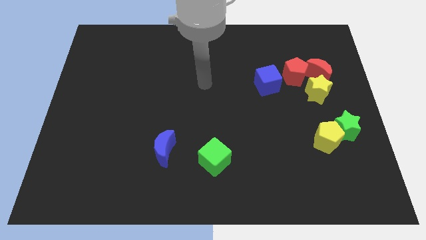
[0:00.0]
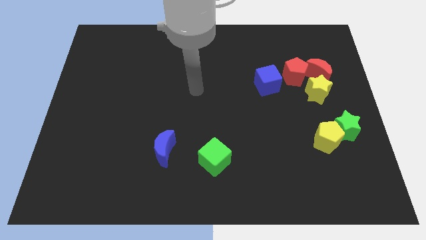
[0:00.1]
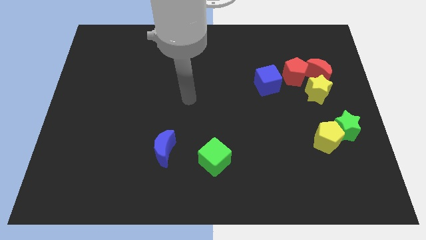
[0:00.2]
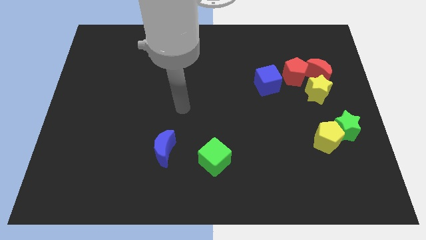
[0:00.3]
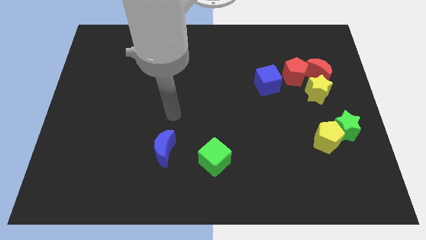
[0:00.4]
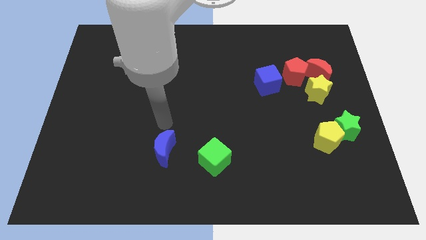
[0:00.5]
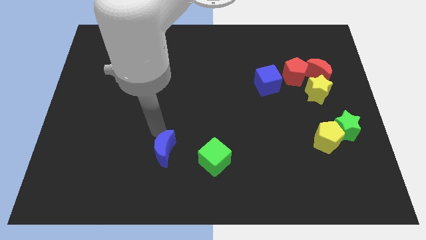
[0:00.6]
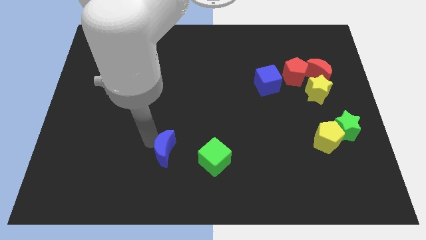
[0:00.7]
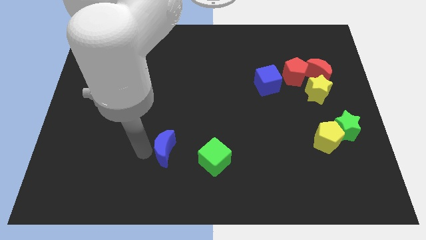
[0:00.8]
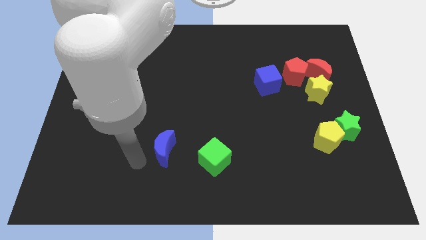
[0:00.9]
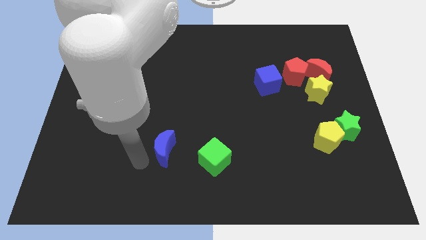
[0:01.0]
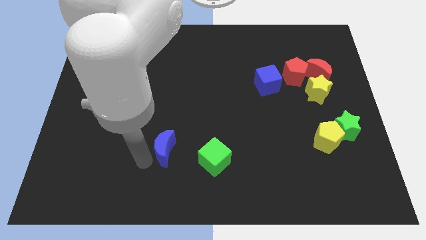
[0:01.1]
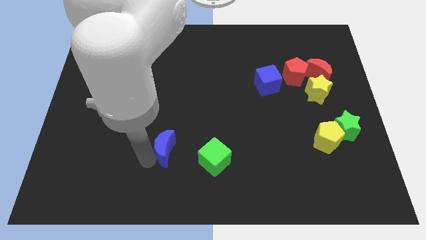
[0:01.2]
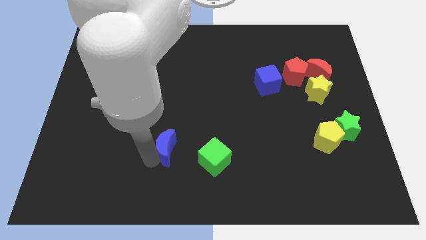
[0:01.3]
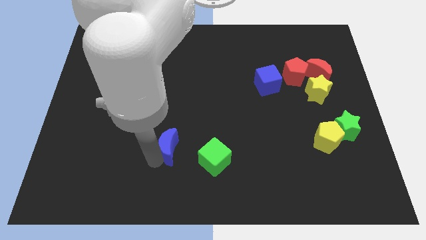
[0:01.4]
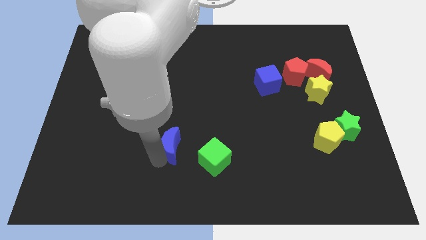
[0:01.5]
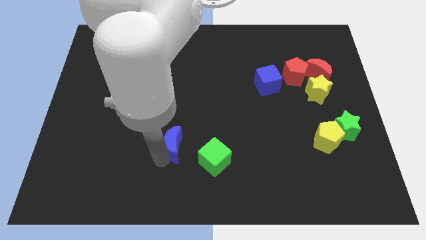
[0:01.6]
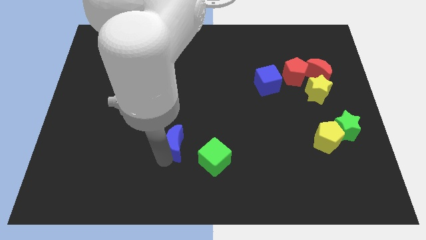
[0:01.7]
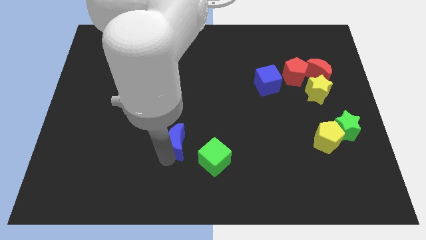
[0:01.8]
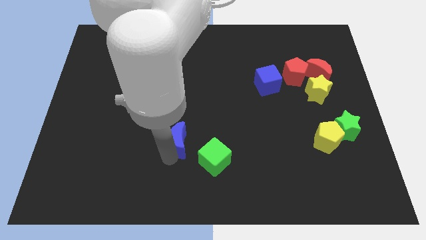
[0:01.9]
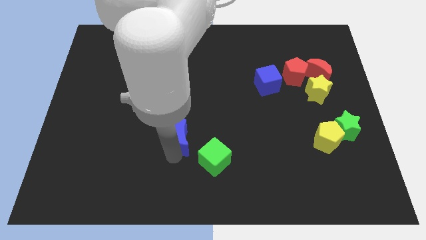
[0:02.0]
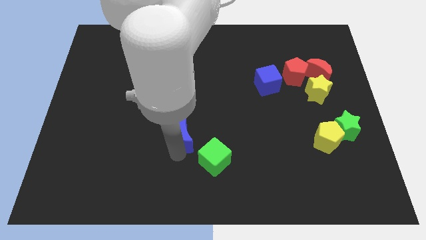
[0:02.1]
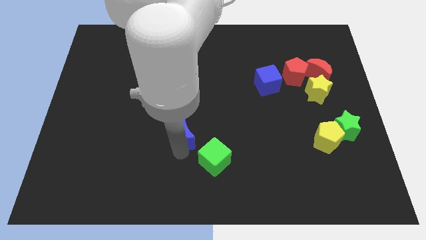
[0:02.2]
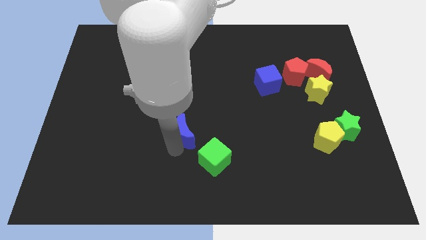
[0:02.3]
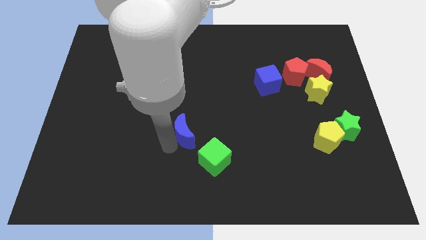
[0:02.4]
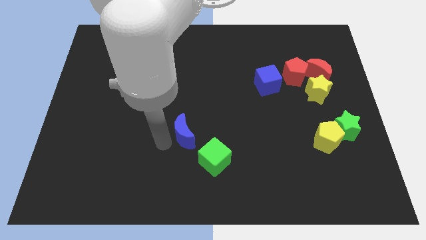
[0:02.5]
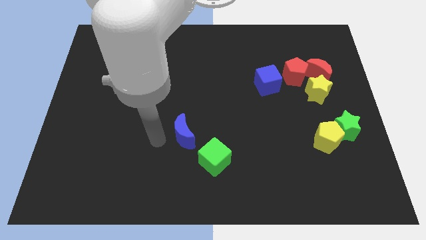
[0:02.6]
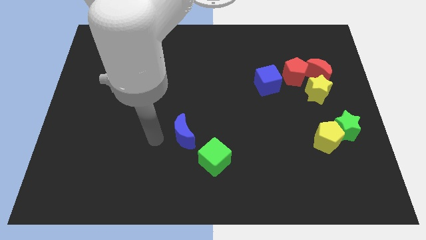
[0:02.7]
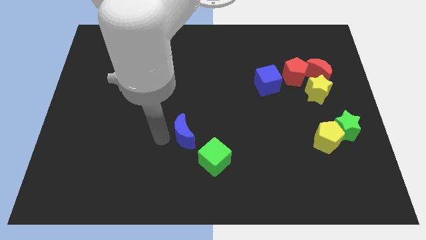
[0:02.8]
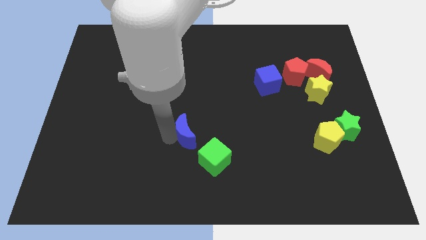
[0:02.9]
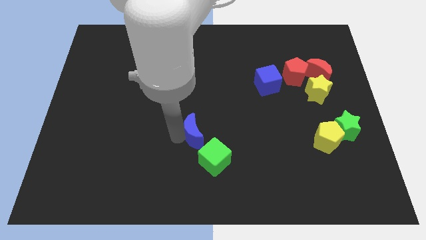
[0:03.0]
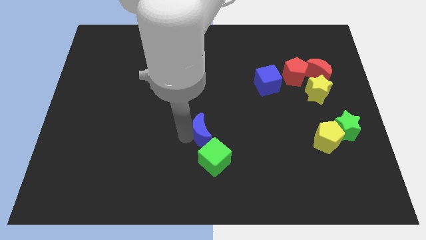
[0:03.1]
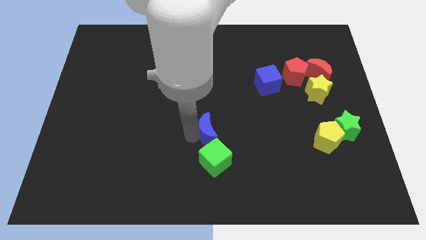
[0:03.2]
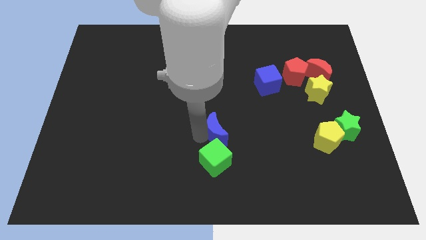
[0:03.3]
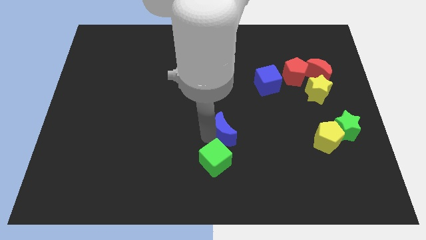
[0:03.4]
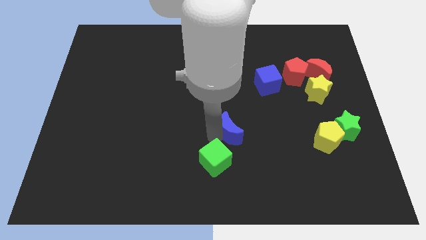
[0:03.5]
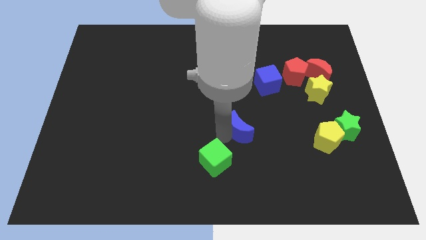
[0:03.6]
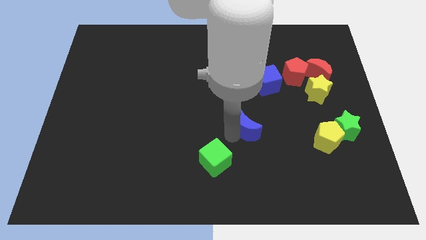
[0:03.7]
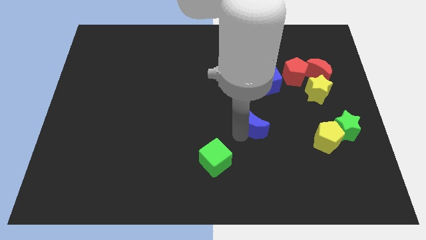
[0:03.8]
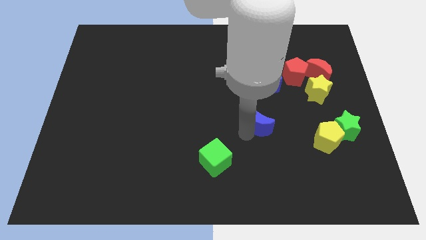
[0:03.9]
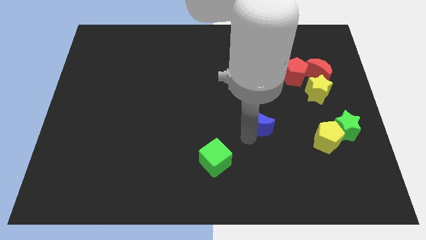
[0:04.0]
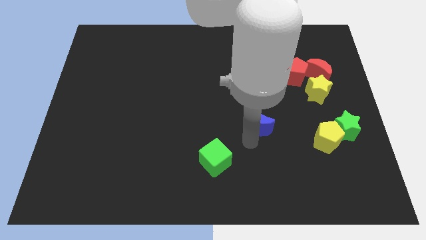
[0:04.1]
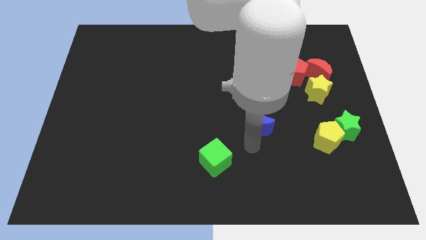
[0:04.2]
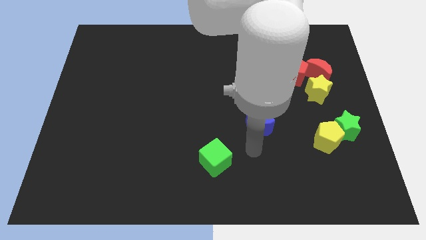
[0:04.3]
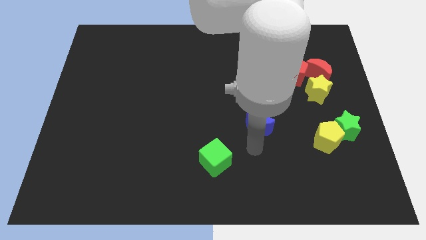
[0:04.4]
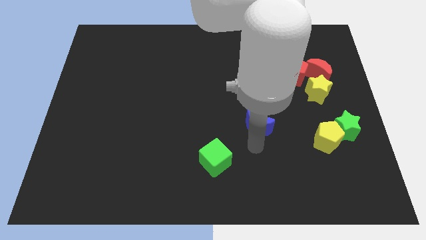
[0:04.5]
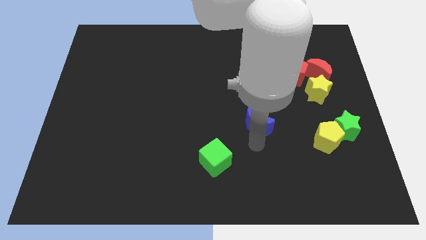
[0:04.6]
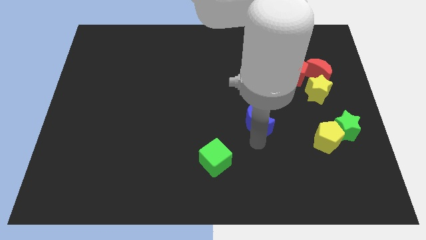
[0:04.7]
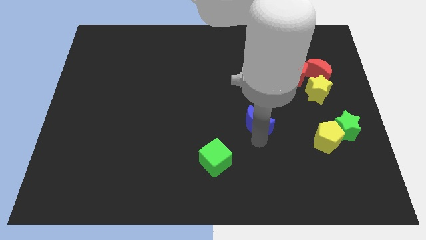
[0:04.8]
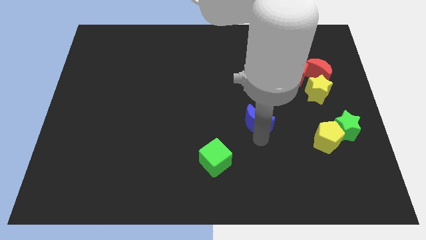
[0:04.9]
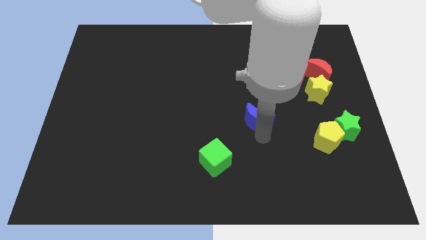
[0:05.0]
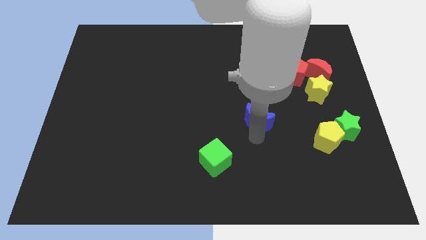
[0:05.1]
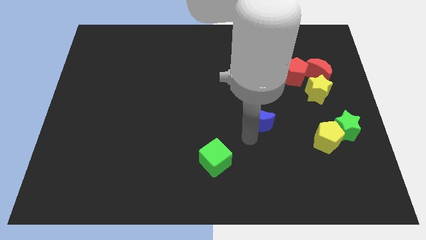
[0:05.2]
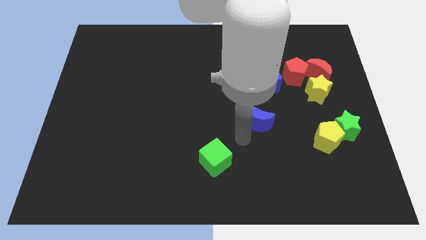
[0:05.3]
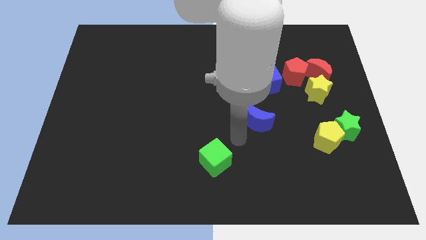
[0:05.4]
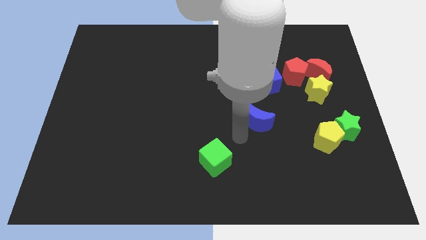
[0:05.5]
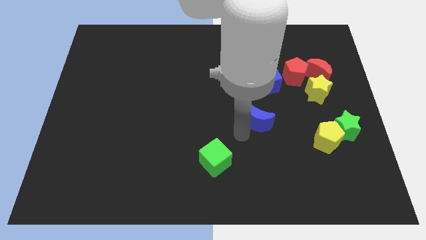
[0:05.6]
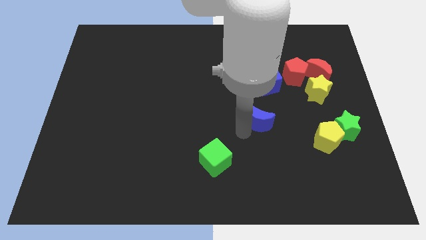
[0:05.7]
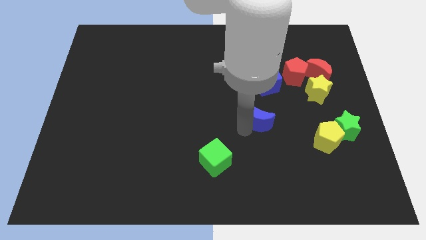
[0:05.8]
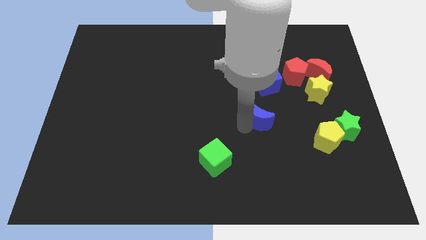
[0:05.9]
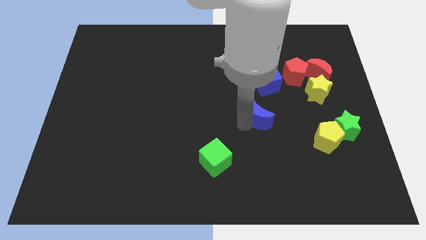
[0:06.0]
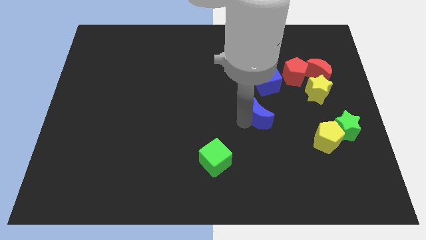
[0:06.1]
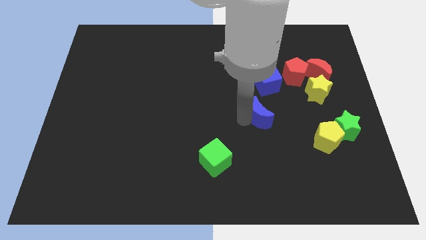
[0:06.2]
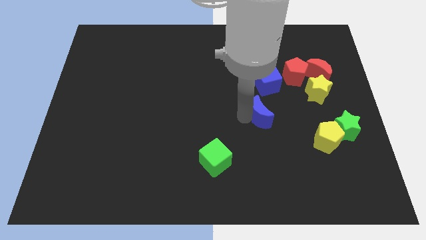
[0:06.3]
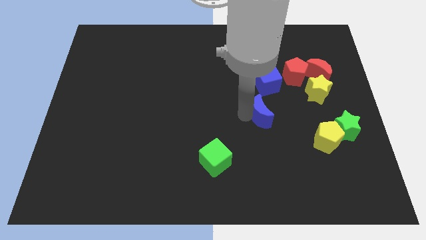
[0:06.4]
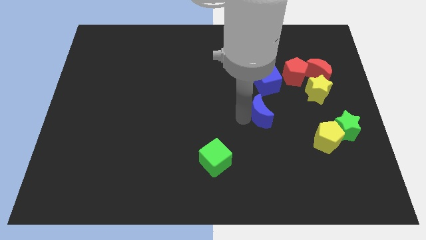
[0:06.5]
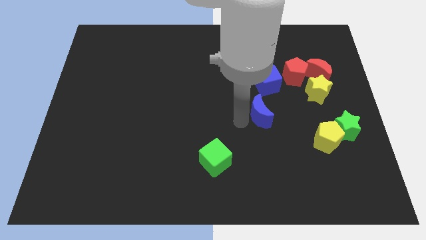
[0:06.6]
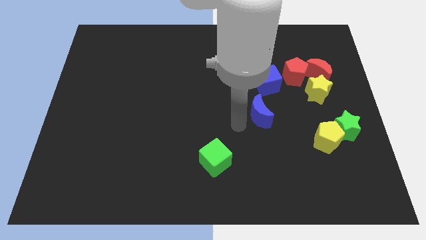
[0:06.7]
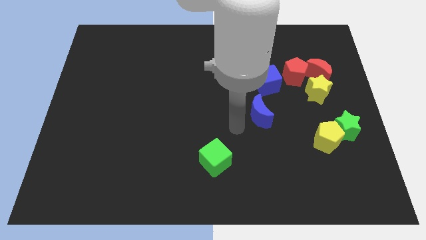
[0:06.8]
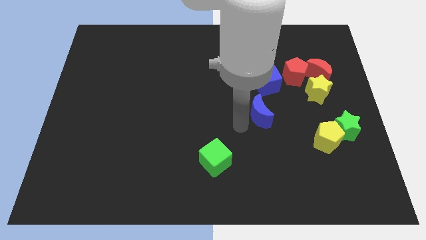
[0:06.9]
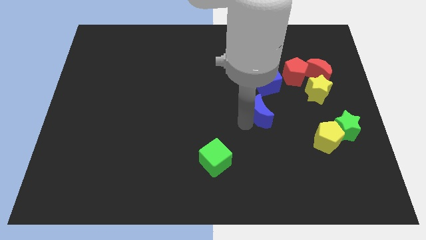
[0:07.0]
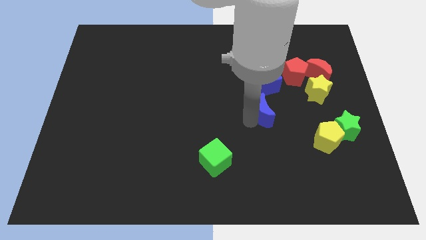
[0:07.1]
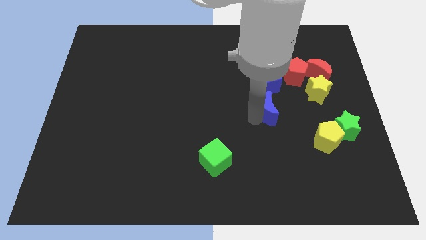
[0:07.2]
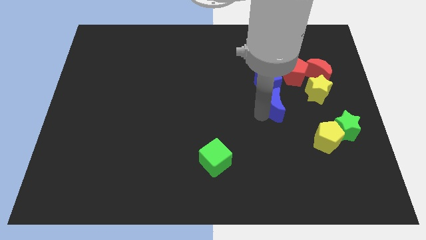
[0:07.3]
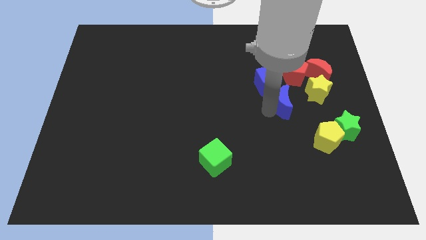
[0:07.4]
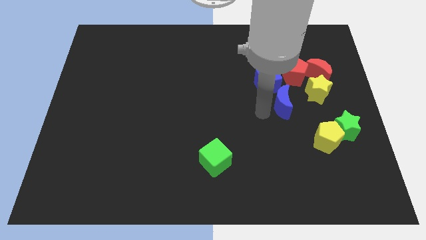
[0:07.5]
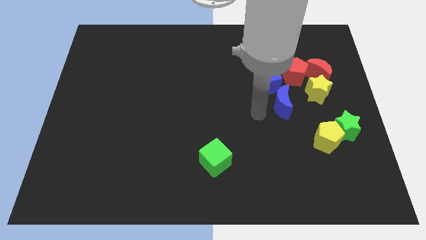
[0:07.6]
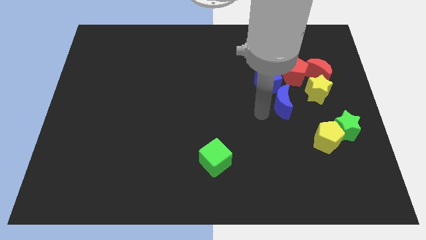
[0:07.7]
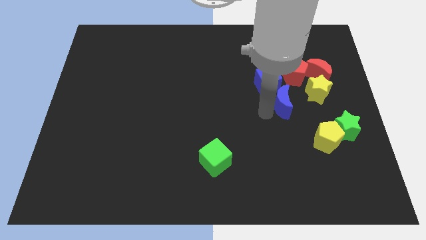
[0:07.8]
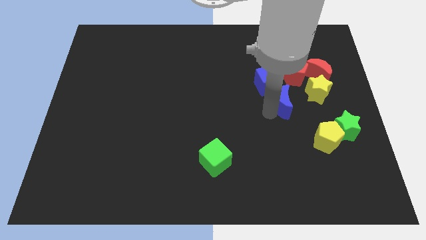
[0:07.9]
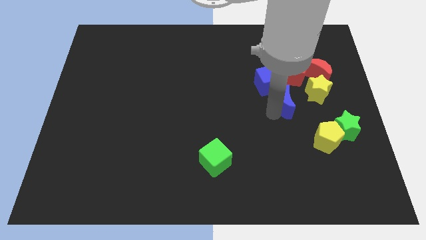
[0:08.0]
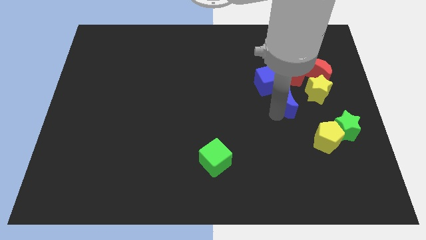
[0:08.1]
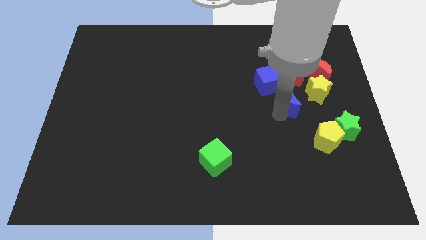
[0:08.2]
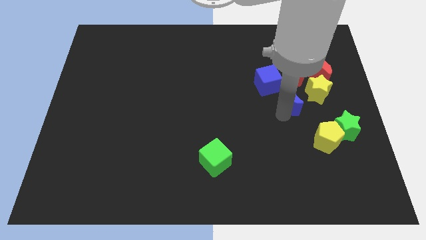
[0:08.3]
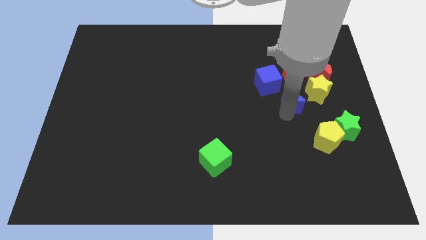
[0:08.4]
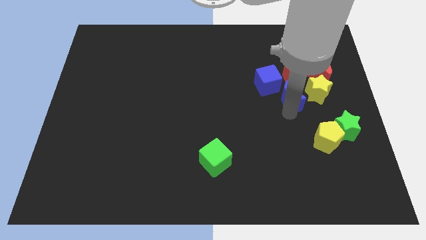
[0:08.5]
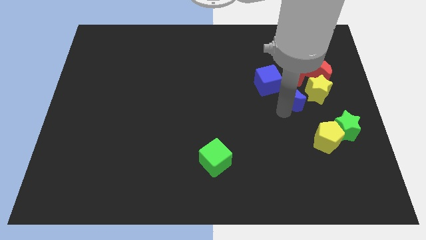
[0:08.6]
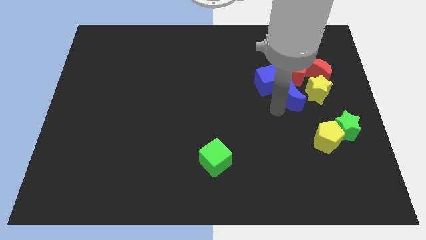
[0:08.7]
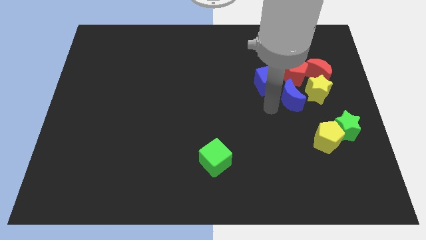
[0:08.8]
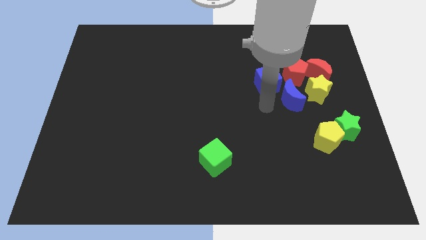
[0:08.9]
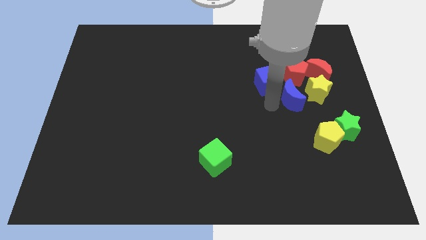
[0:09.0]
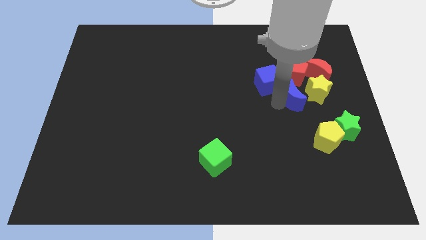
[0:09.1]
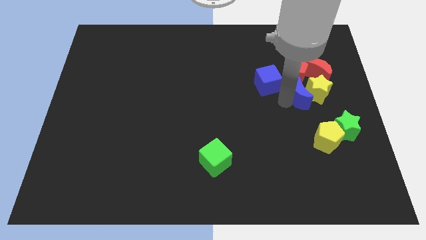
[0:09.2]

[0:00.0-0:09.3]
put the blue moon next to the yellow star
